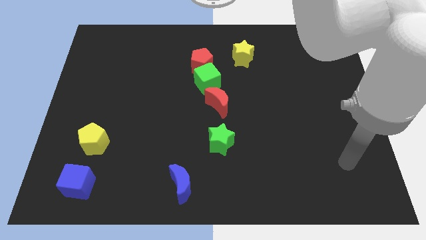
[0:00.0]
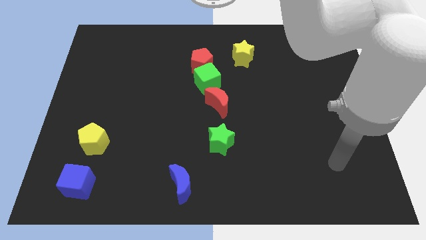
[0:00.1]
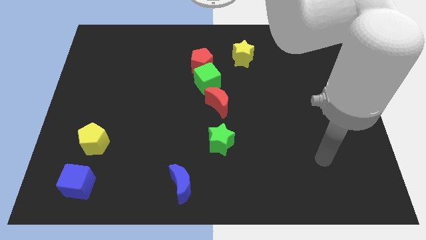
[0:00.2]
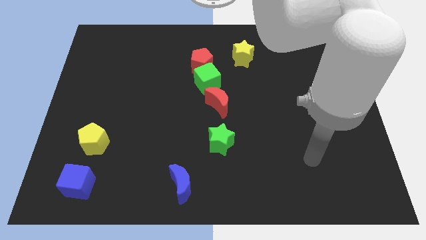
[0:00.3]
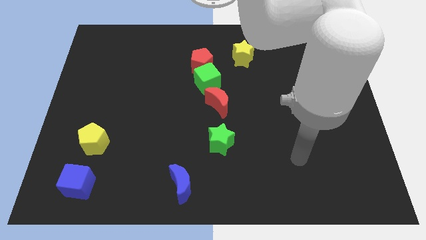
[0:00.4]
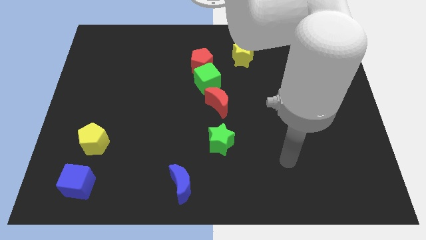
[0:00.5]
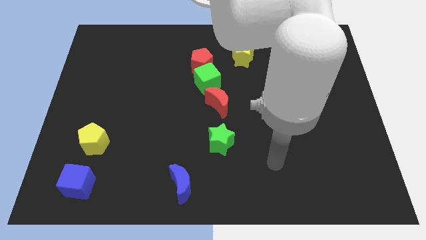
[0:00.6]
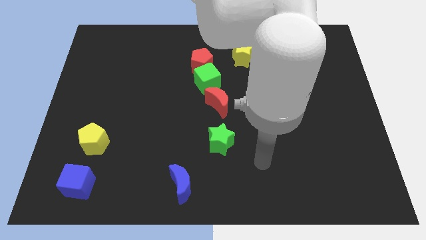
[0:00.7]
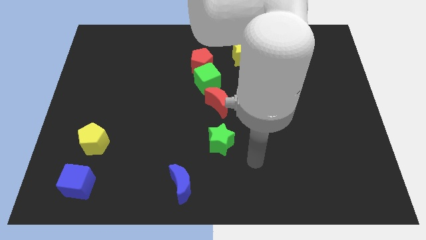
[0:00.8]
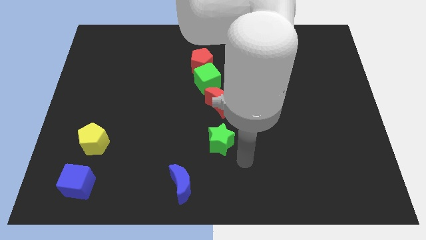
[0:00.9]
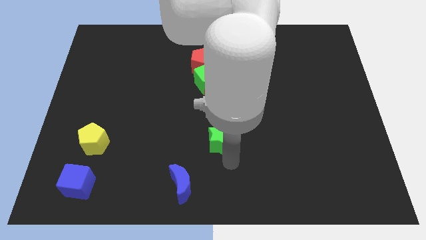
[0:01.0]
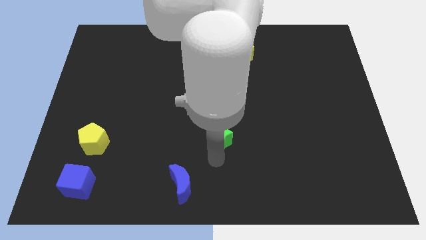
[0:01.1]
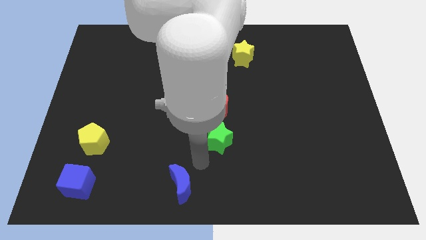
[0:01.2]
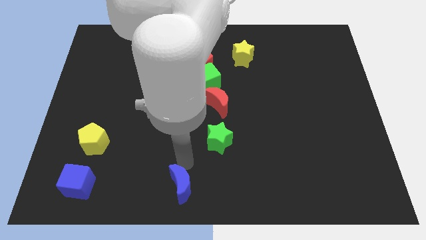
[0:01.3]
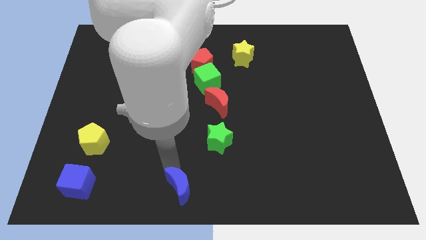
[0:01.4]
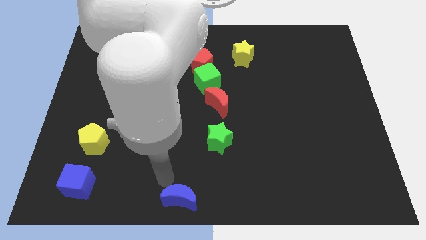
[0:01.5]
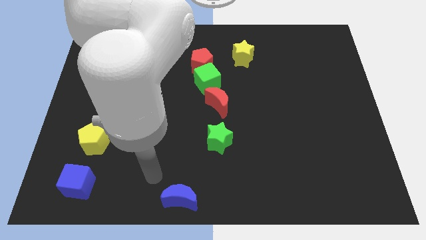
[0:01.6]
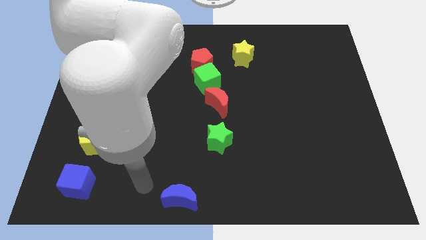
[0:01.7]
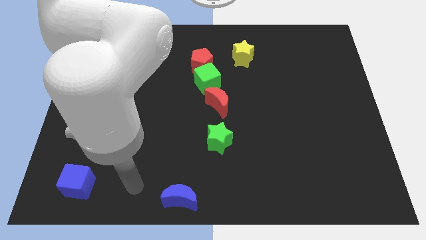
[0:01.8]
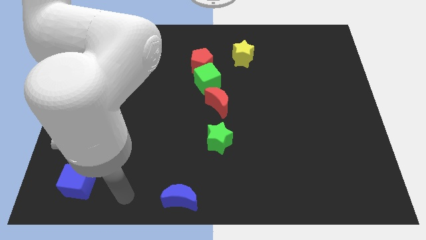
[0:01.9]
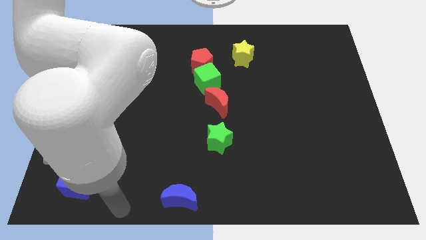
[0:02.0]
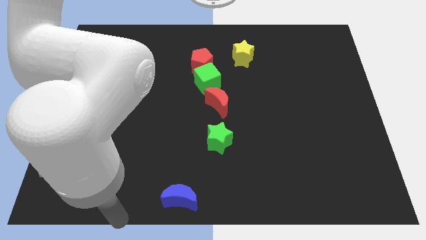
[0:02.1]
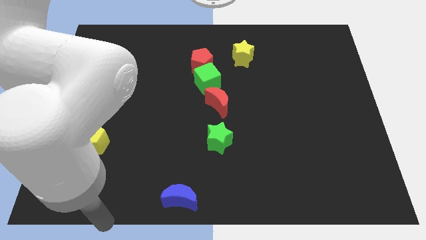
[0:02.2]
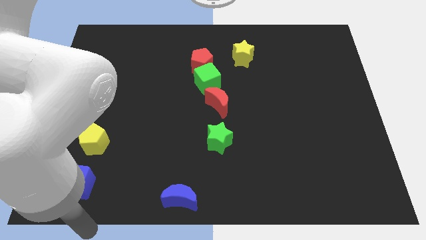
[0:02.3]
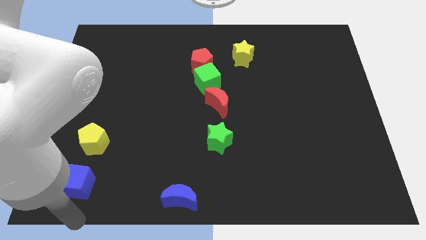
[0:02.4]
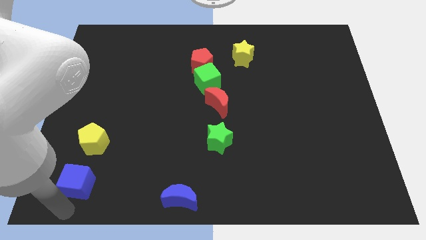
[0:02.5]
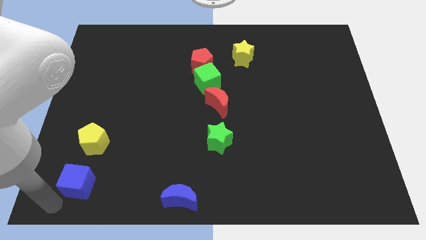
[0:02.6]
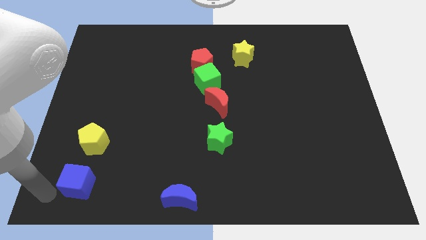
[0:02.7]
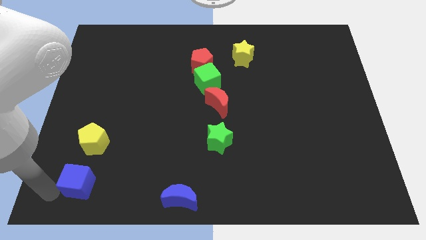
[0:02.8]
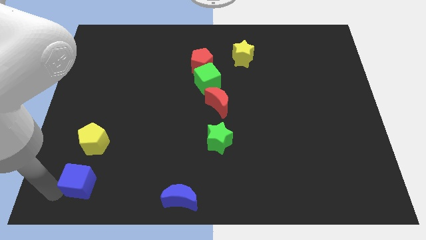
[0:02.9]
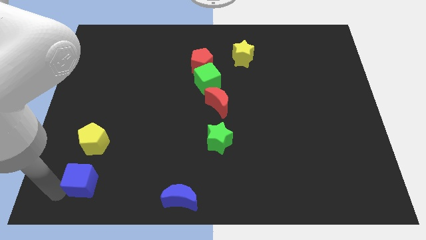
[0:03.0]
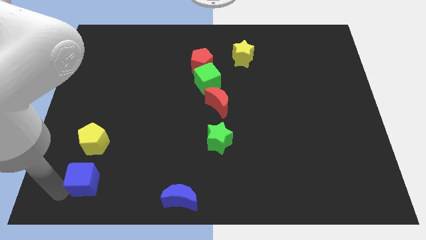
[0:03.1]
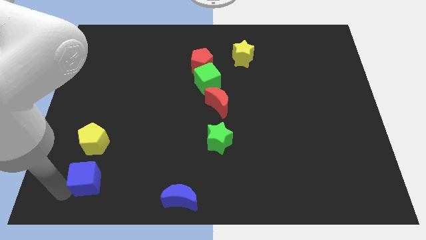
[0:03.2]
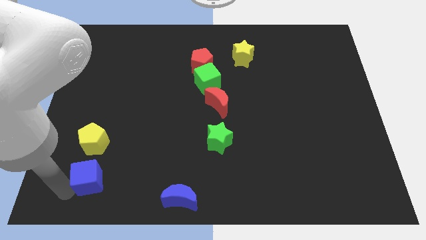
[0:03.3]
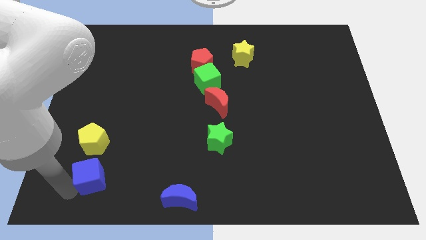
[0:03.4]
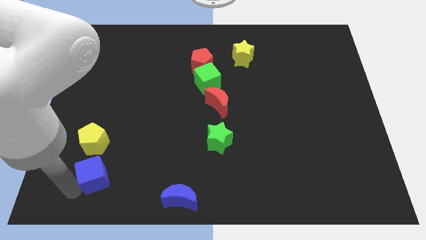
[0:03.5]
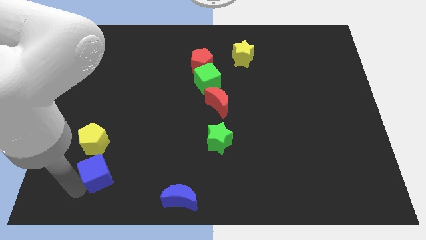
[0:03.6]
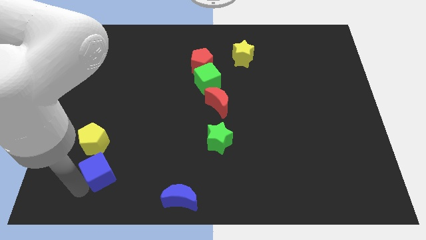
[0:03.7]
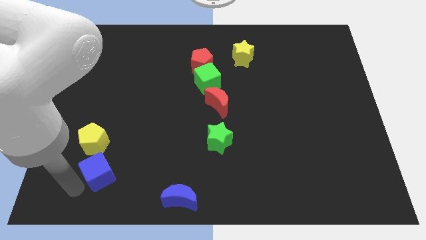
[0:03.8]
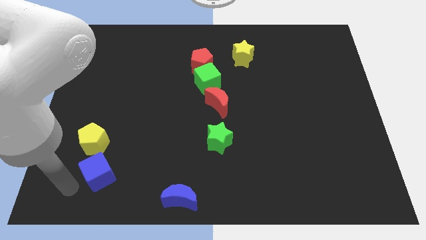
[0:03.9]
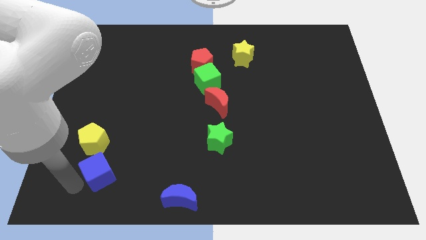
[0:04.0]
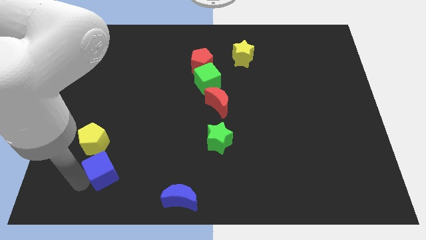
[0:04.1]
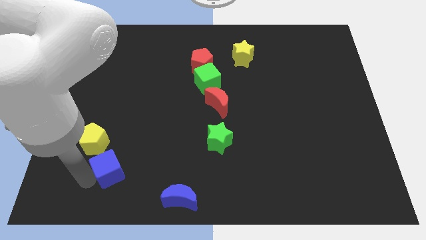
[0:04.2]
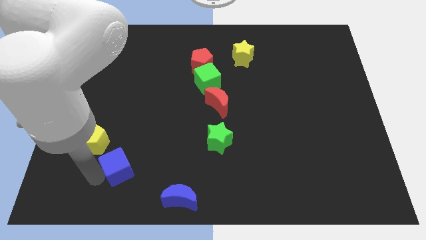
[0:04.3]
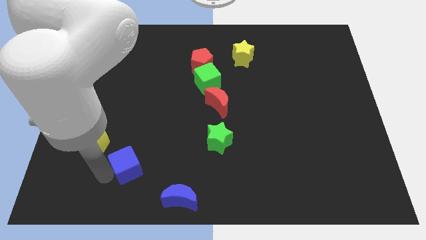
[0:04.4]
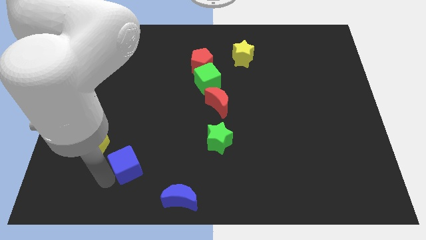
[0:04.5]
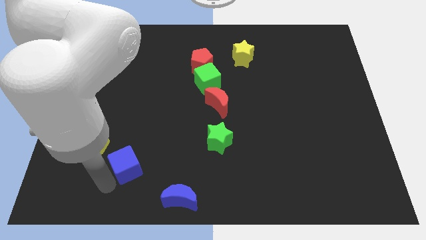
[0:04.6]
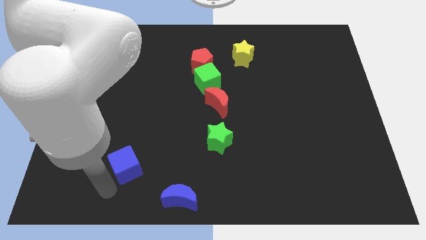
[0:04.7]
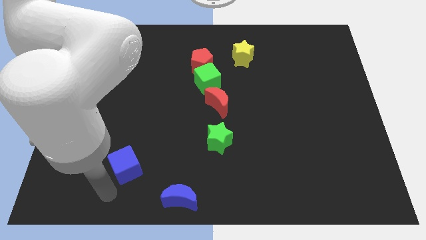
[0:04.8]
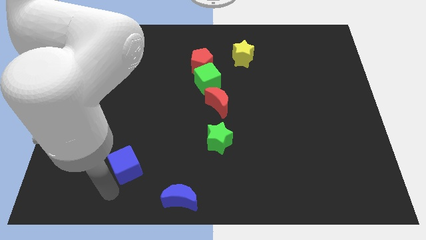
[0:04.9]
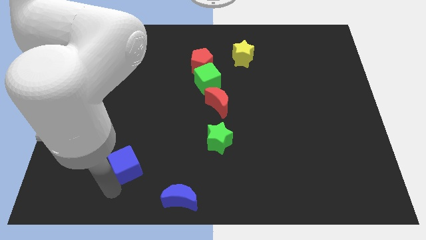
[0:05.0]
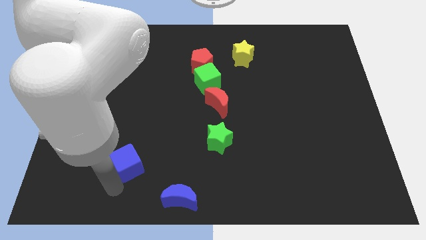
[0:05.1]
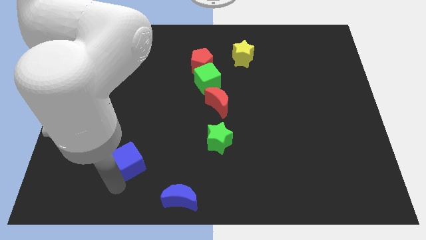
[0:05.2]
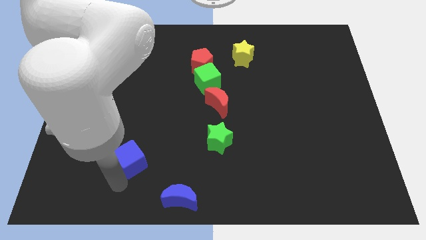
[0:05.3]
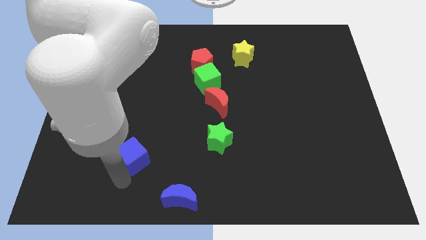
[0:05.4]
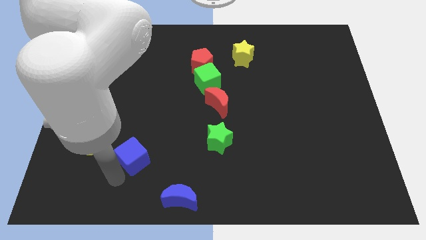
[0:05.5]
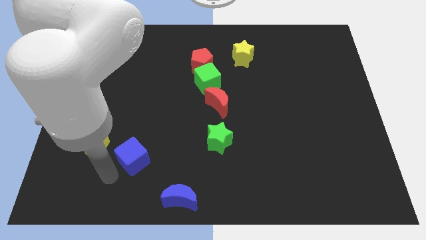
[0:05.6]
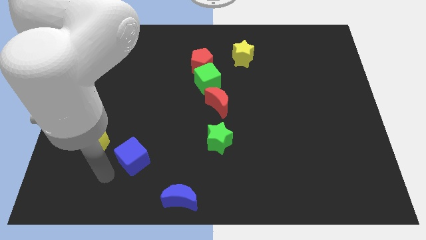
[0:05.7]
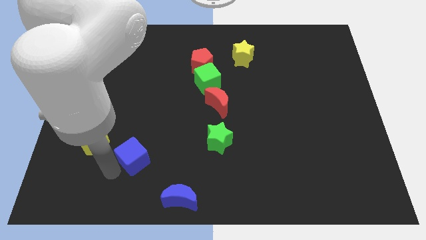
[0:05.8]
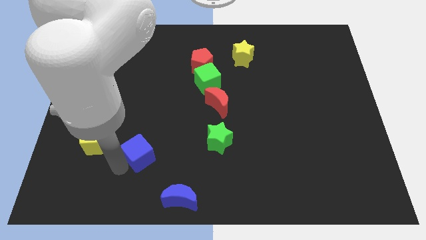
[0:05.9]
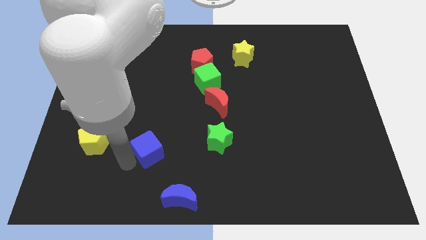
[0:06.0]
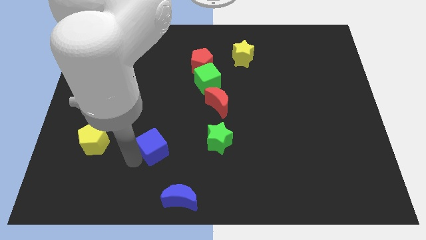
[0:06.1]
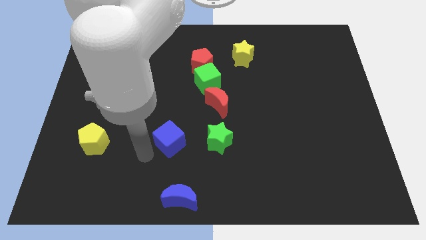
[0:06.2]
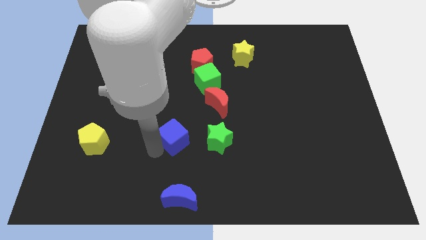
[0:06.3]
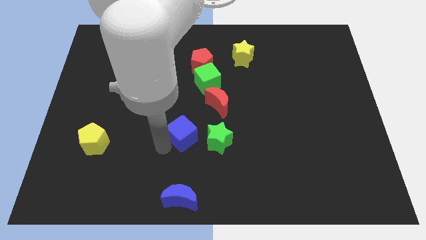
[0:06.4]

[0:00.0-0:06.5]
put the blue cube to the top left side of the green star

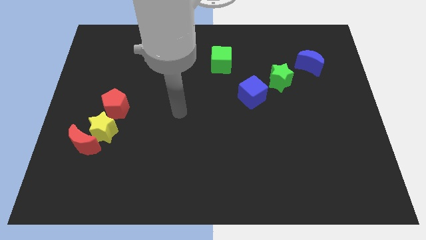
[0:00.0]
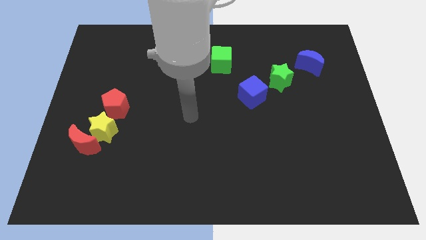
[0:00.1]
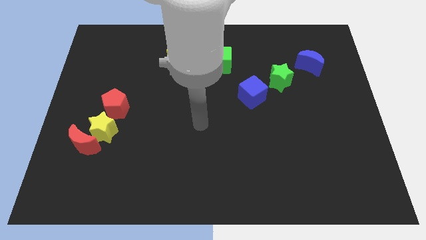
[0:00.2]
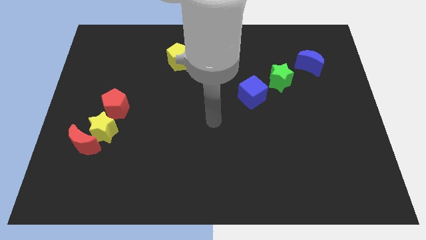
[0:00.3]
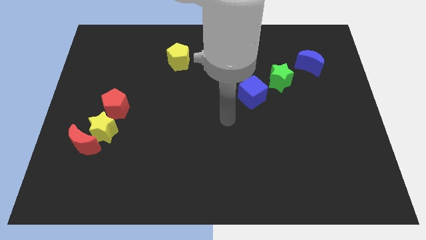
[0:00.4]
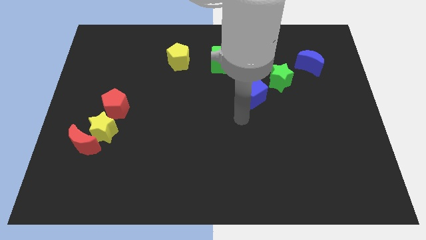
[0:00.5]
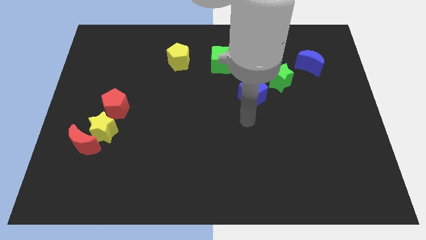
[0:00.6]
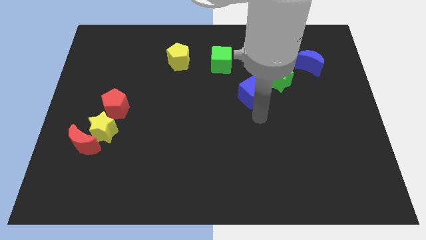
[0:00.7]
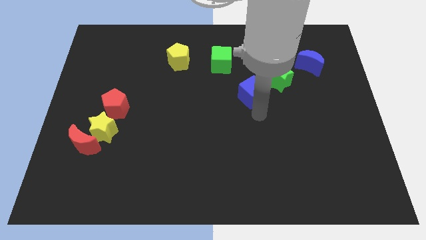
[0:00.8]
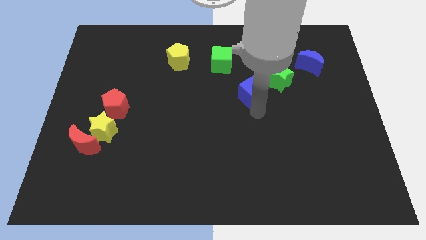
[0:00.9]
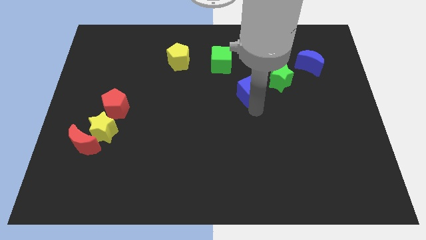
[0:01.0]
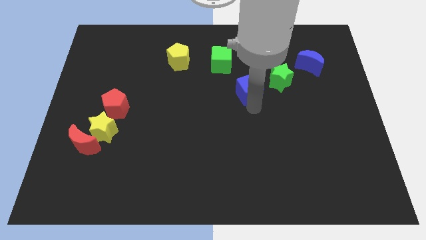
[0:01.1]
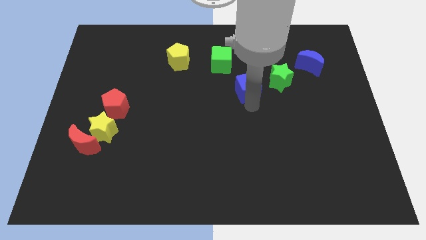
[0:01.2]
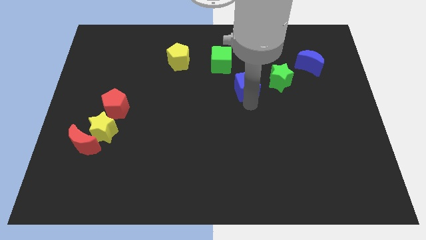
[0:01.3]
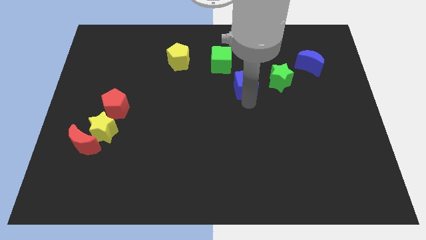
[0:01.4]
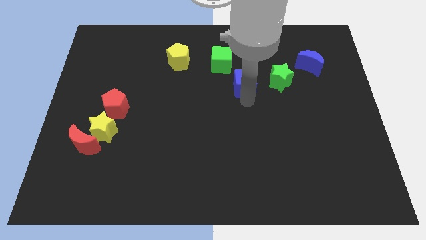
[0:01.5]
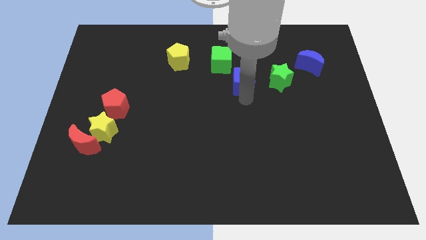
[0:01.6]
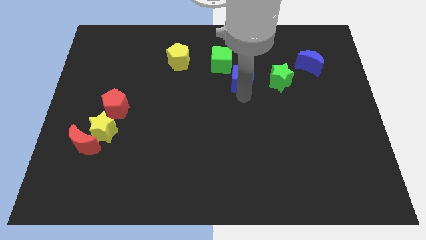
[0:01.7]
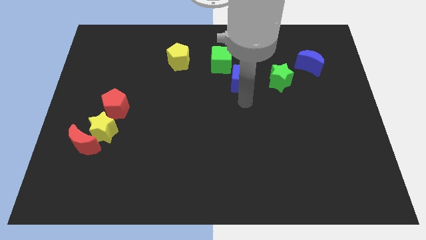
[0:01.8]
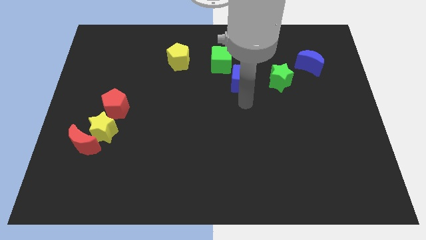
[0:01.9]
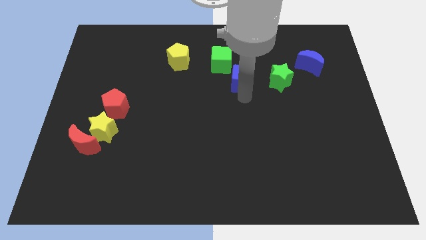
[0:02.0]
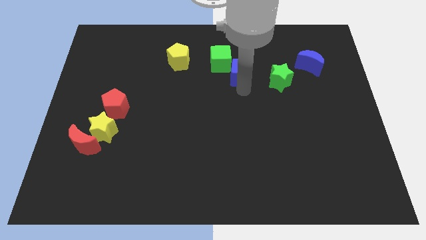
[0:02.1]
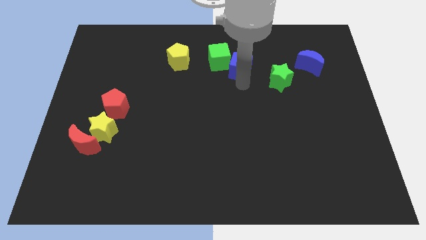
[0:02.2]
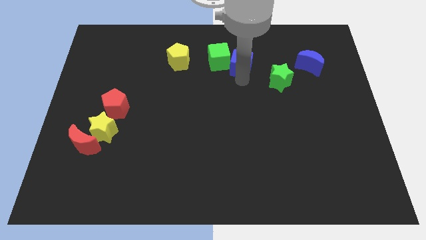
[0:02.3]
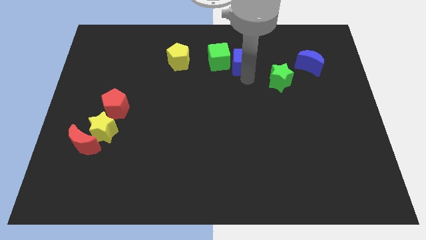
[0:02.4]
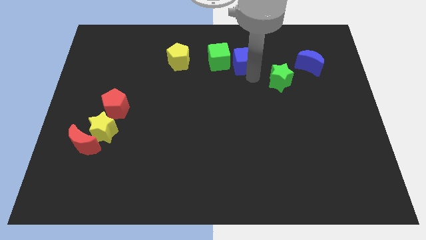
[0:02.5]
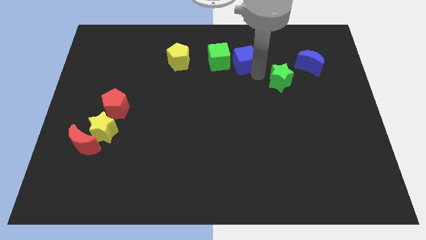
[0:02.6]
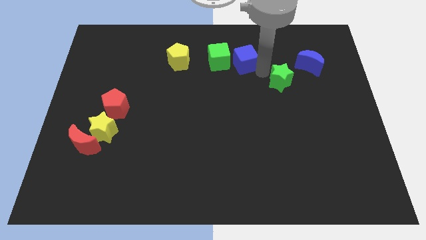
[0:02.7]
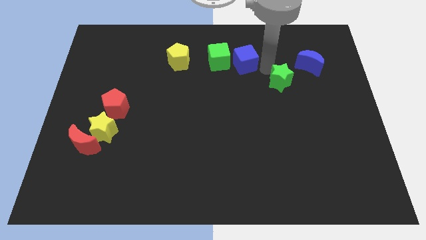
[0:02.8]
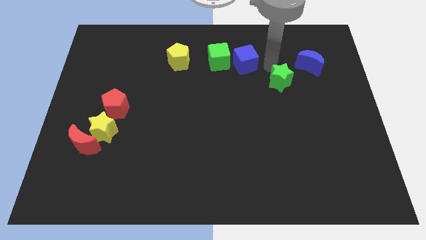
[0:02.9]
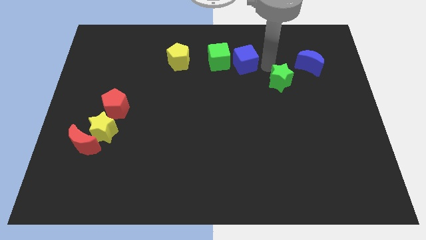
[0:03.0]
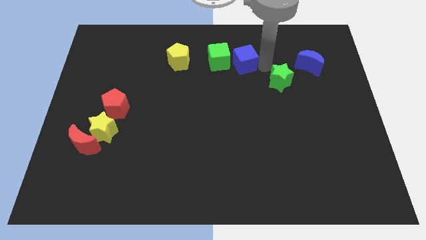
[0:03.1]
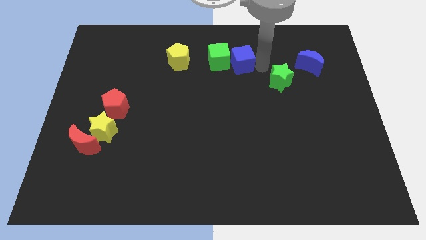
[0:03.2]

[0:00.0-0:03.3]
move the blue cube to the right side of the yellow pentagon
